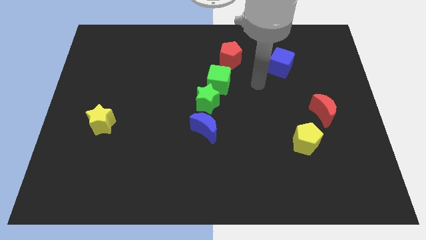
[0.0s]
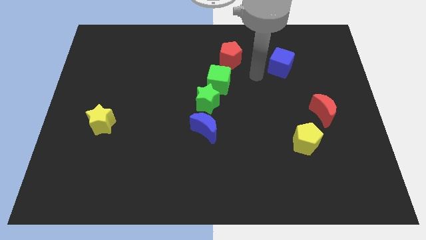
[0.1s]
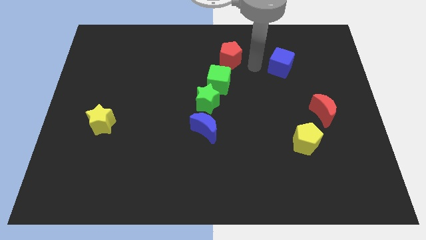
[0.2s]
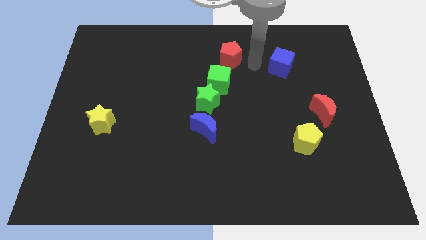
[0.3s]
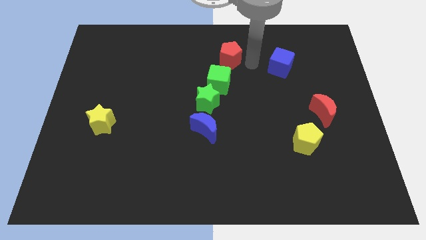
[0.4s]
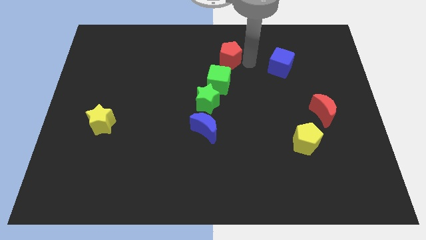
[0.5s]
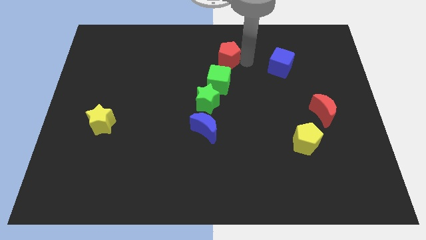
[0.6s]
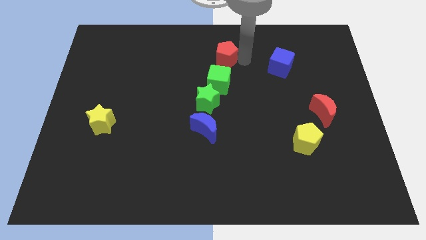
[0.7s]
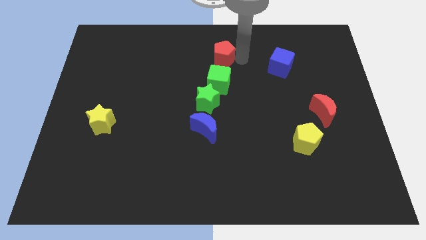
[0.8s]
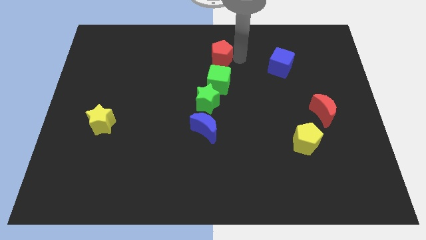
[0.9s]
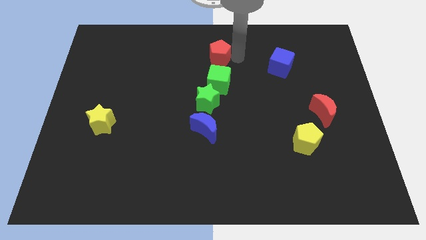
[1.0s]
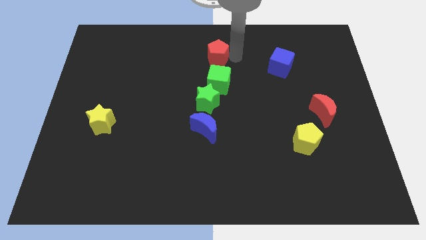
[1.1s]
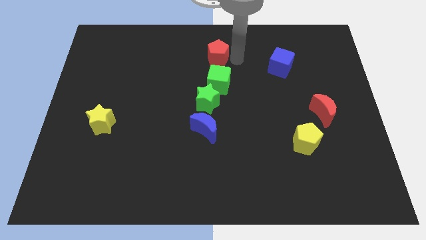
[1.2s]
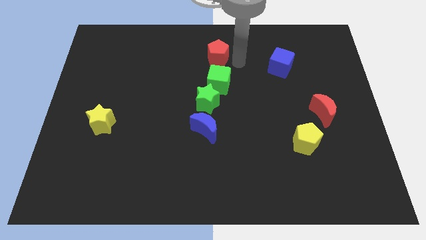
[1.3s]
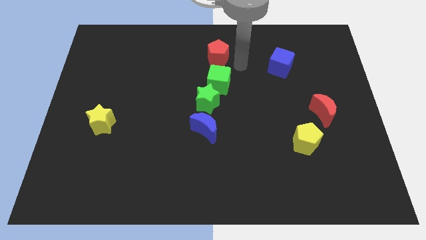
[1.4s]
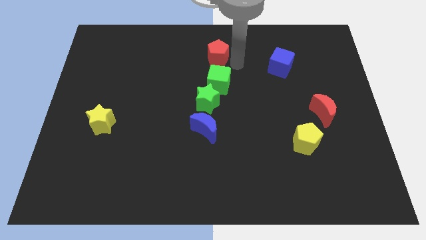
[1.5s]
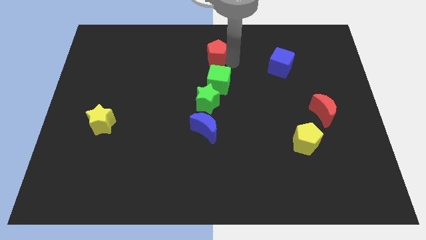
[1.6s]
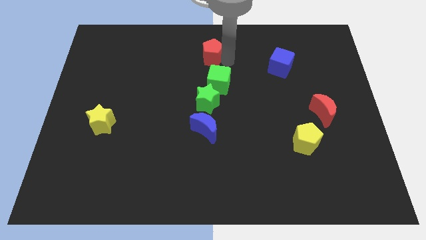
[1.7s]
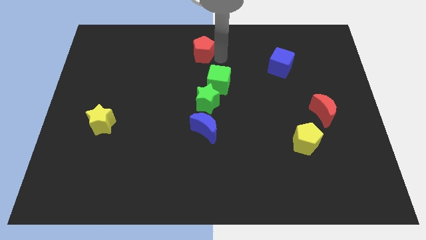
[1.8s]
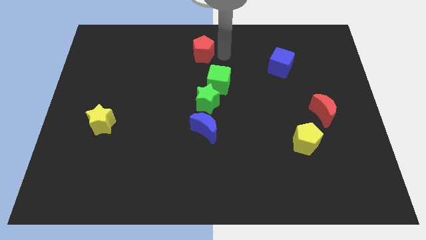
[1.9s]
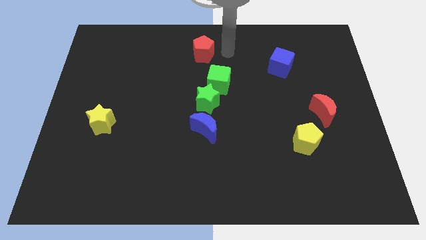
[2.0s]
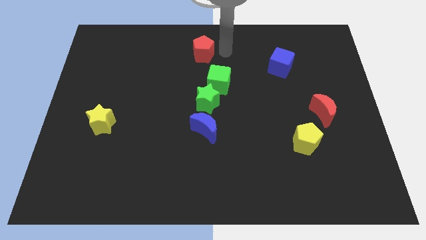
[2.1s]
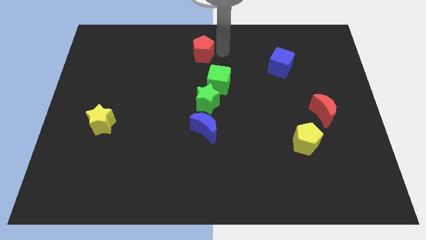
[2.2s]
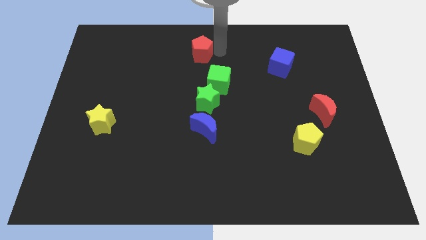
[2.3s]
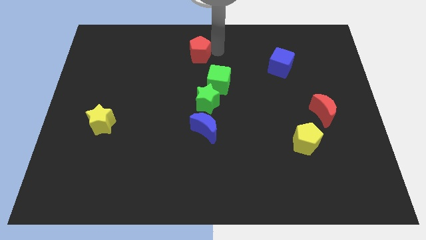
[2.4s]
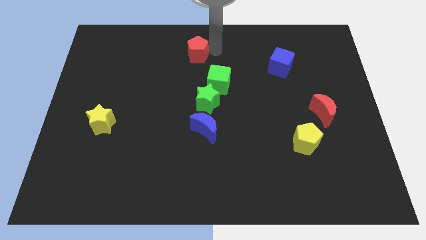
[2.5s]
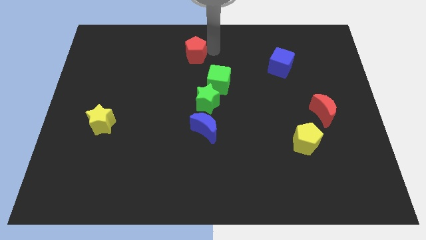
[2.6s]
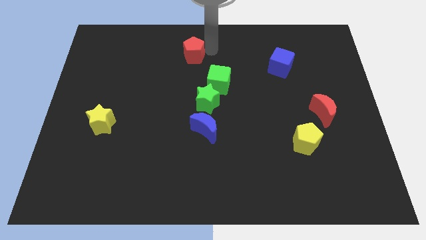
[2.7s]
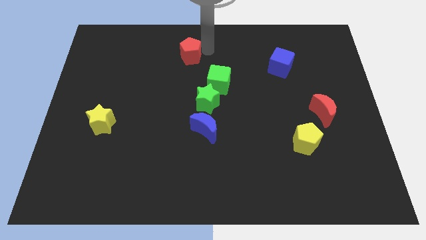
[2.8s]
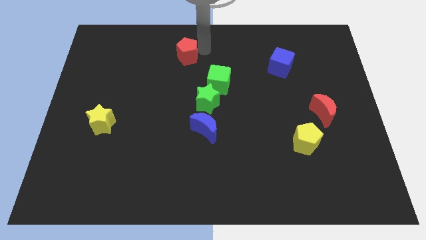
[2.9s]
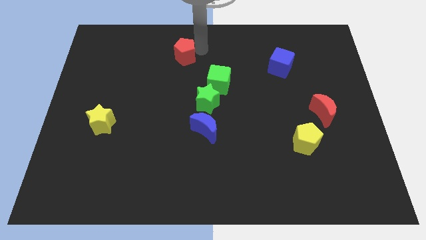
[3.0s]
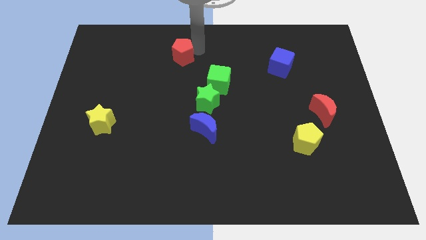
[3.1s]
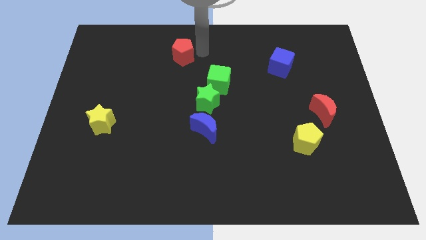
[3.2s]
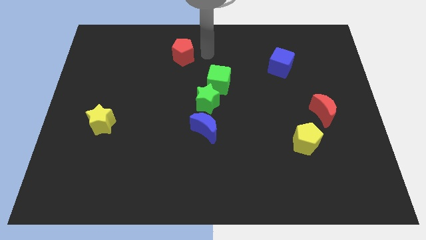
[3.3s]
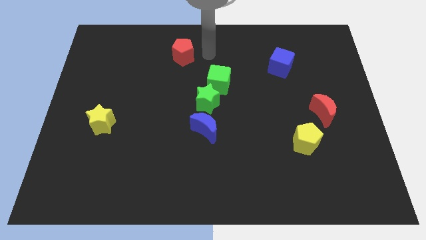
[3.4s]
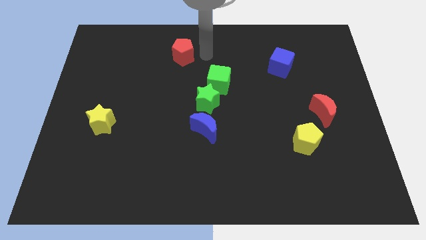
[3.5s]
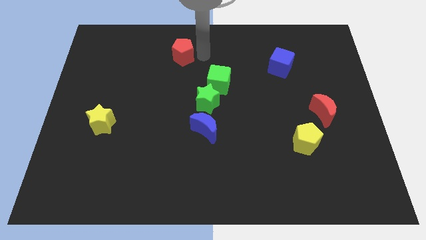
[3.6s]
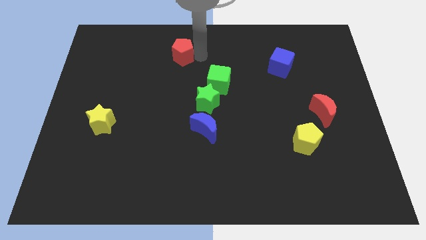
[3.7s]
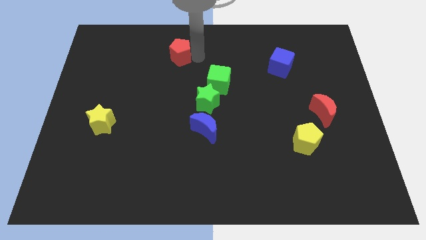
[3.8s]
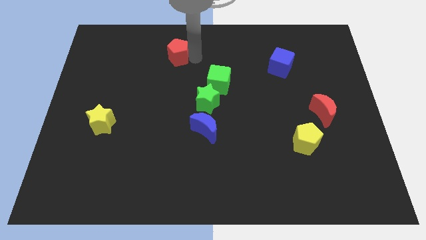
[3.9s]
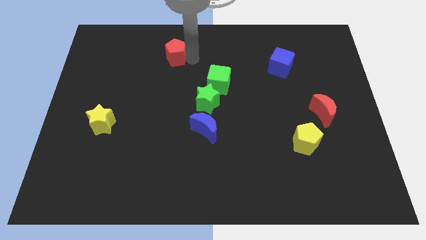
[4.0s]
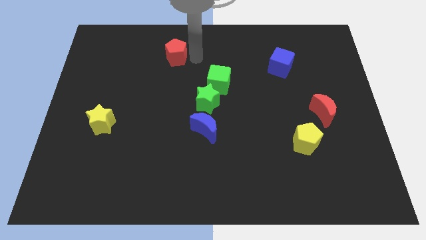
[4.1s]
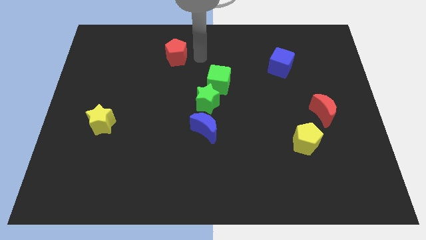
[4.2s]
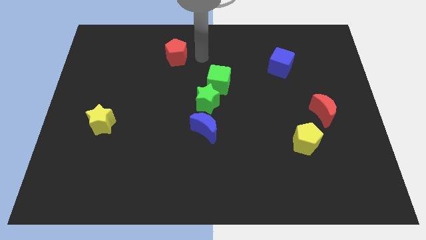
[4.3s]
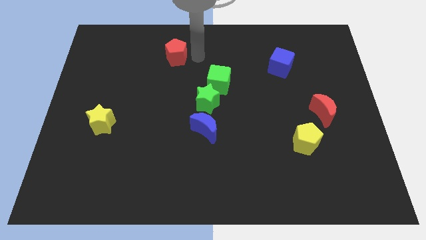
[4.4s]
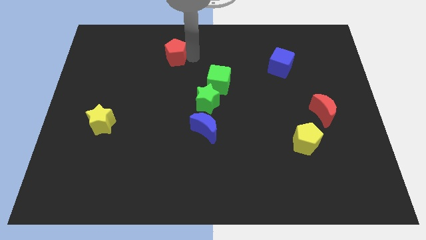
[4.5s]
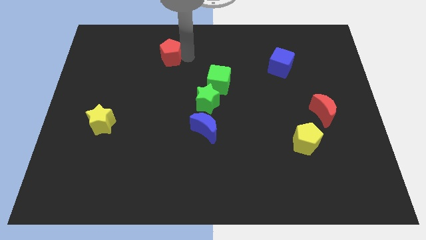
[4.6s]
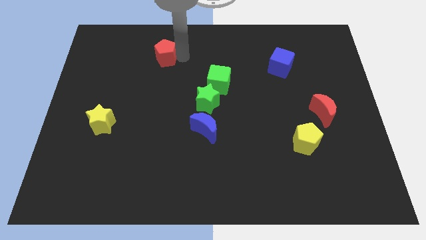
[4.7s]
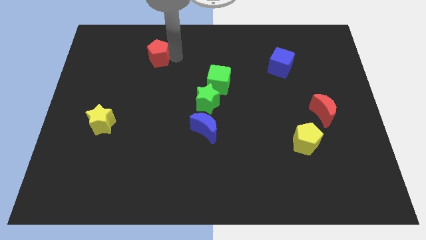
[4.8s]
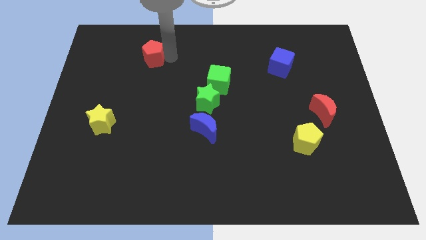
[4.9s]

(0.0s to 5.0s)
slide the red pentagon to the left

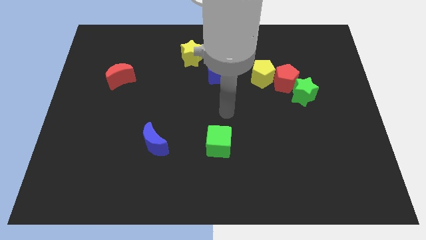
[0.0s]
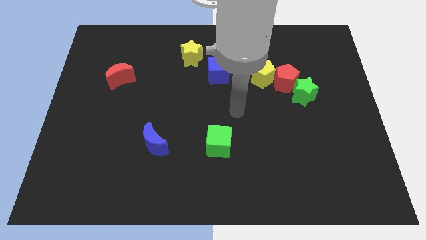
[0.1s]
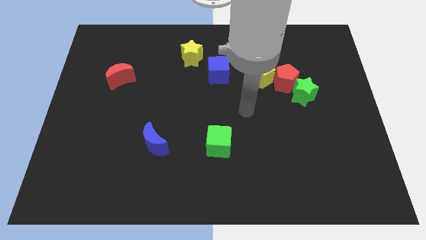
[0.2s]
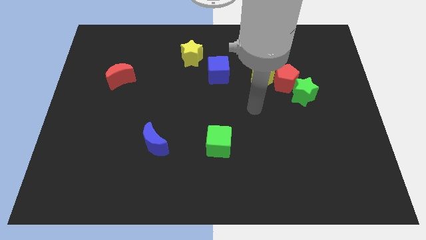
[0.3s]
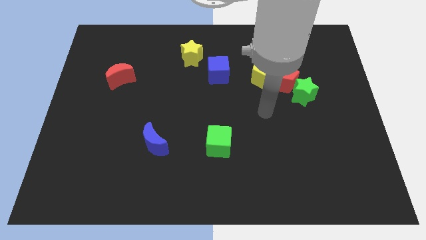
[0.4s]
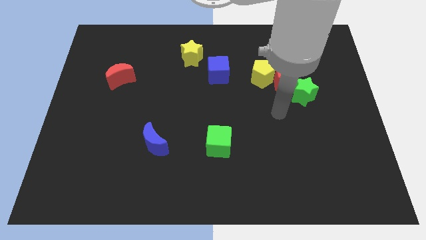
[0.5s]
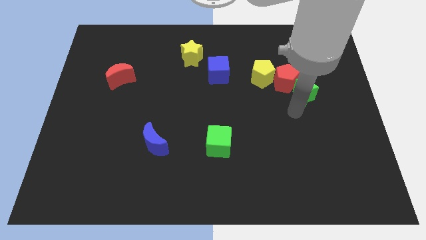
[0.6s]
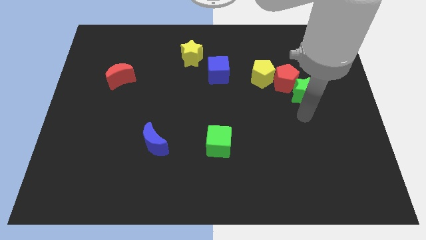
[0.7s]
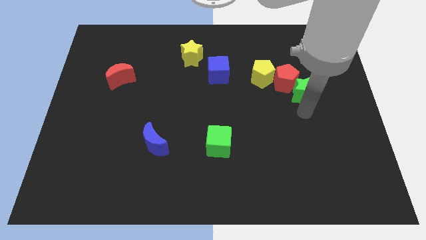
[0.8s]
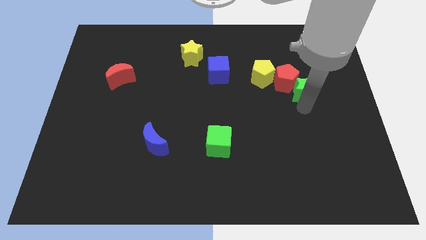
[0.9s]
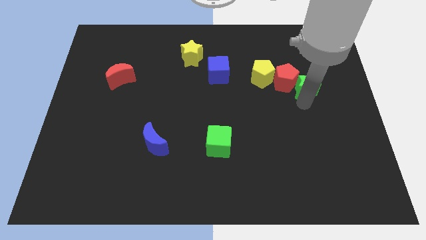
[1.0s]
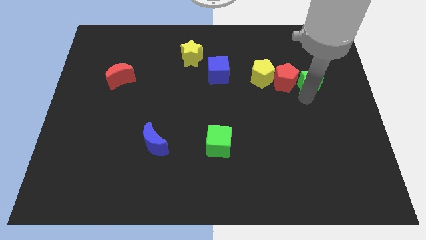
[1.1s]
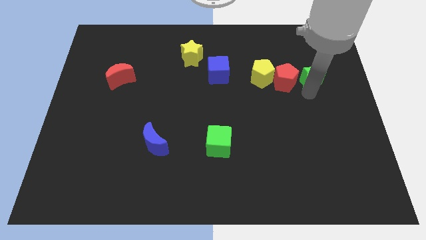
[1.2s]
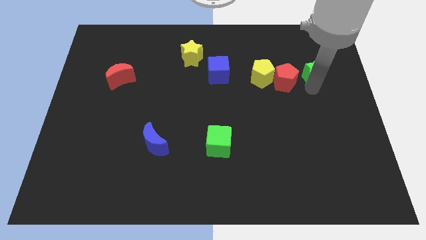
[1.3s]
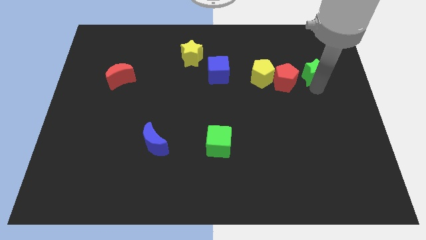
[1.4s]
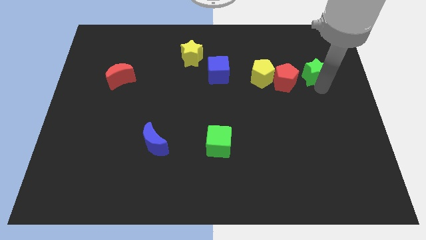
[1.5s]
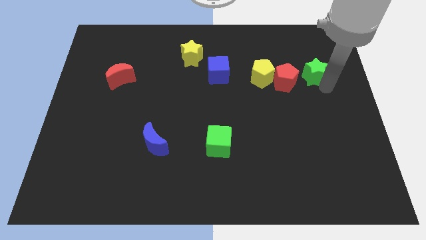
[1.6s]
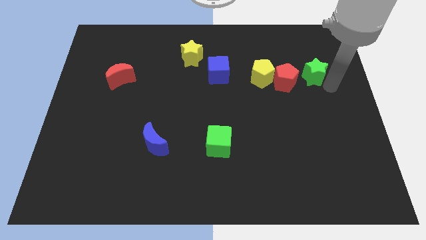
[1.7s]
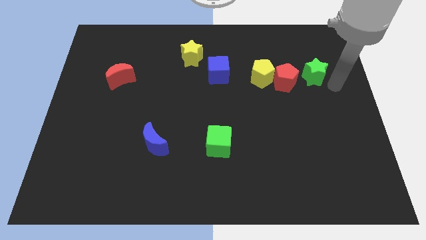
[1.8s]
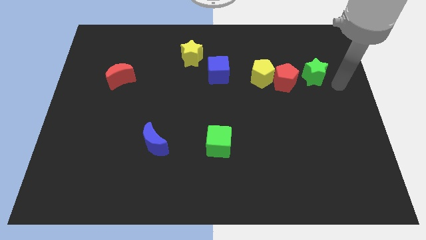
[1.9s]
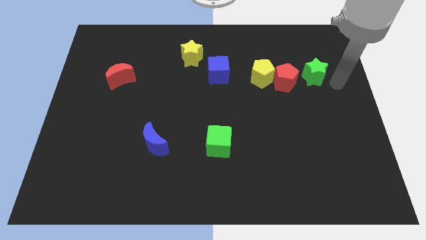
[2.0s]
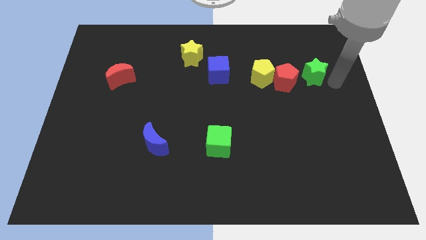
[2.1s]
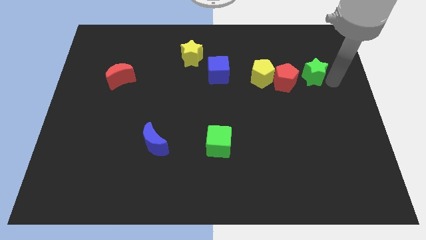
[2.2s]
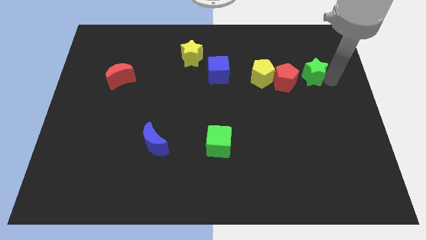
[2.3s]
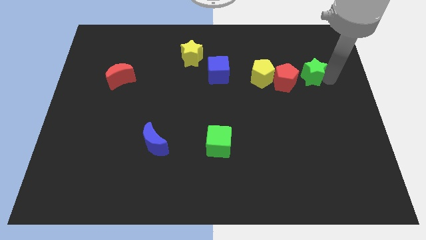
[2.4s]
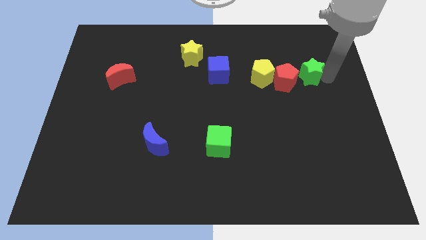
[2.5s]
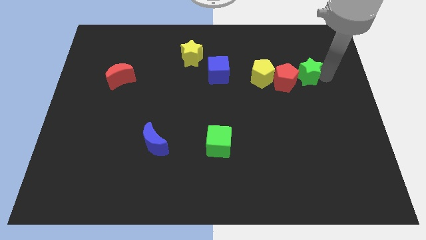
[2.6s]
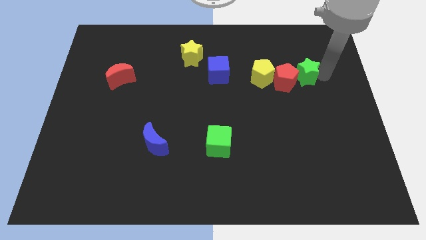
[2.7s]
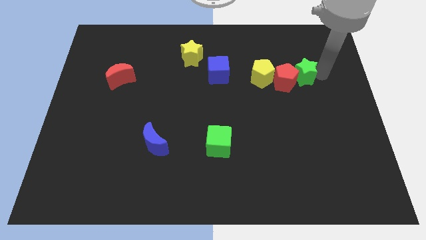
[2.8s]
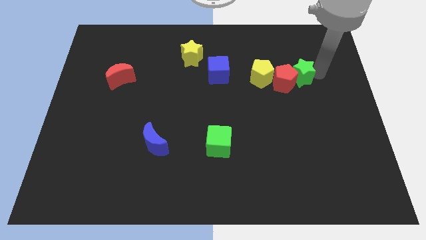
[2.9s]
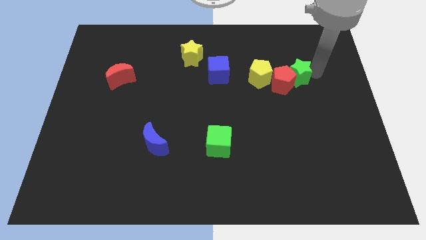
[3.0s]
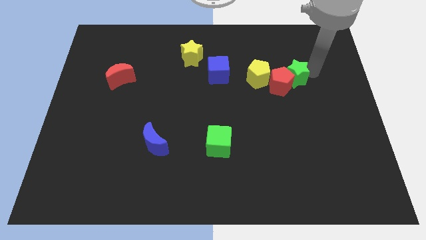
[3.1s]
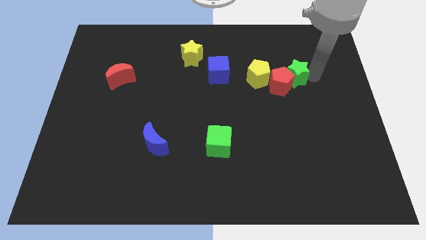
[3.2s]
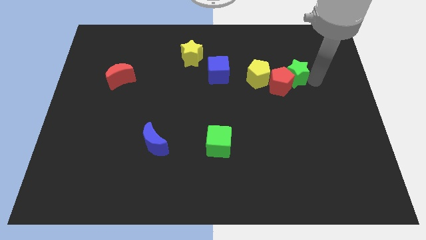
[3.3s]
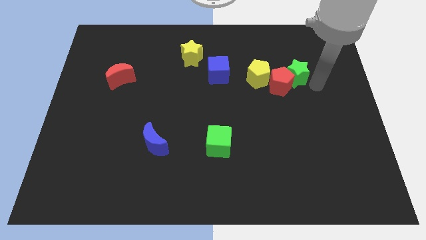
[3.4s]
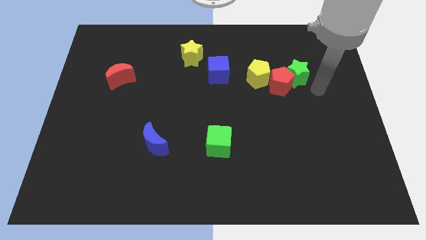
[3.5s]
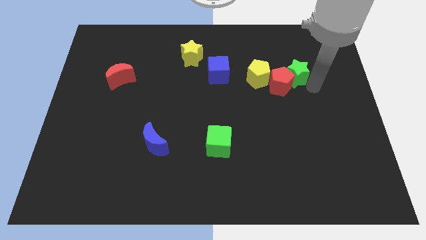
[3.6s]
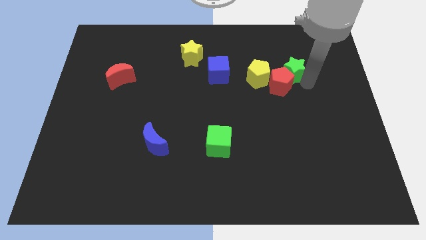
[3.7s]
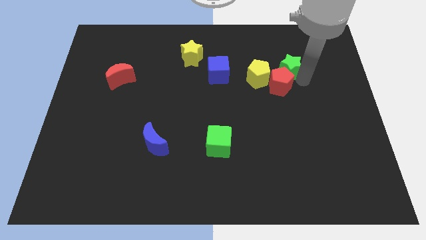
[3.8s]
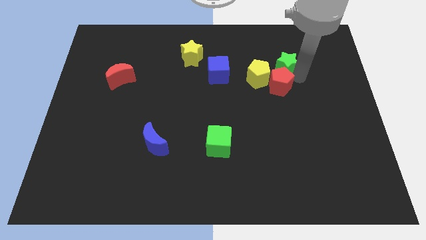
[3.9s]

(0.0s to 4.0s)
slide the green star up and to the left slightly
